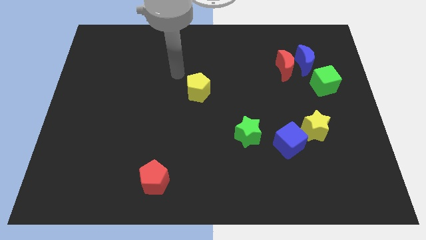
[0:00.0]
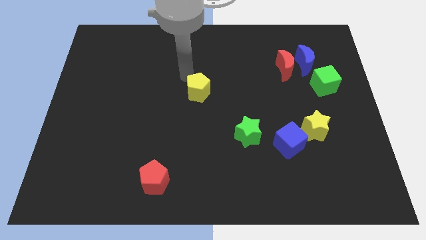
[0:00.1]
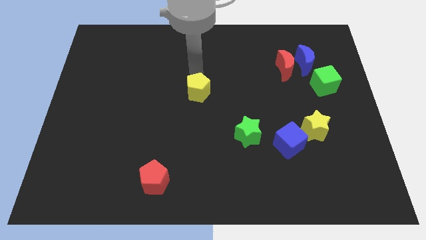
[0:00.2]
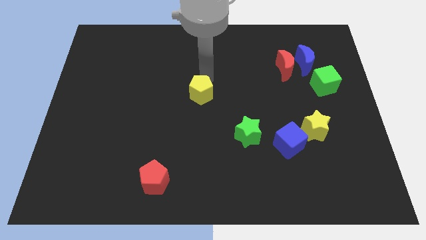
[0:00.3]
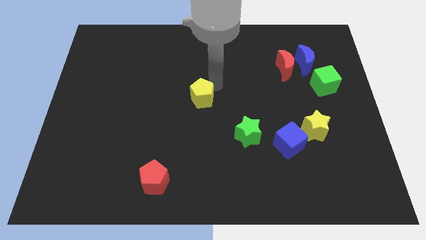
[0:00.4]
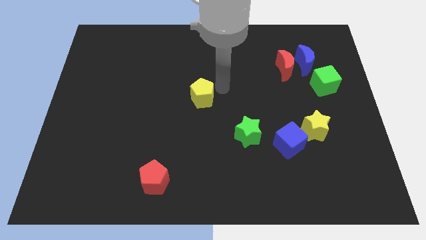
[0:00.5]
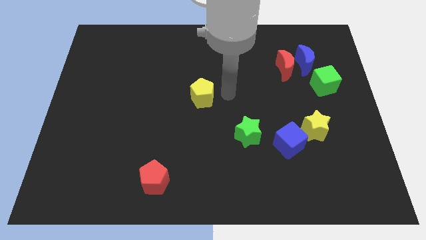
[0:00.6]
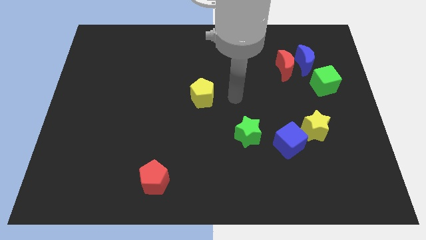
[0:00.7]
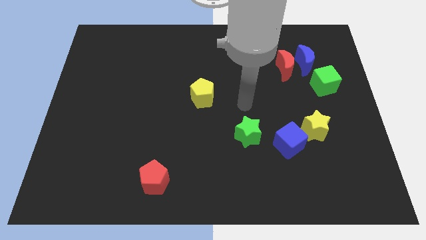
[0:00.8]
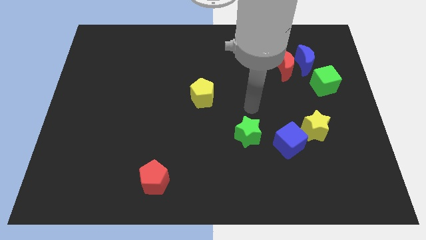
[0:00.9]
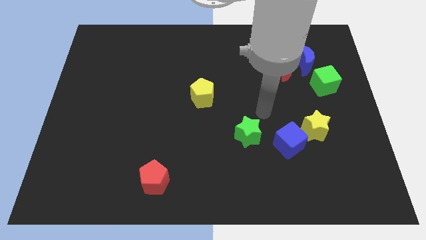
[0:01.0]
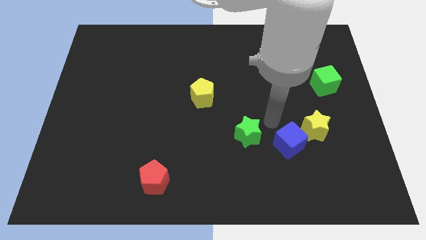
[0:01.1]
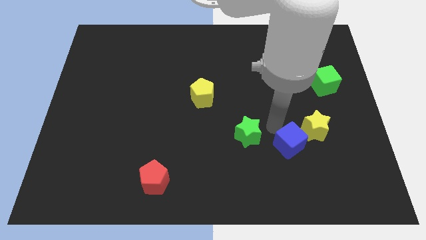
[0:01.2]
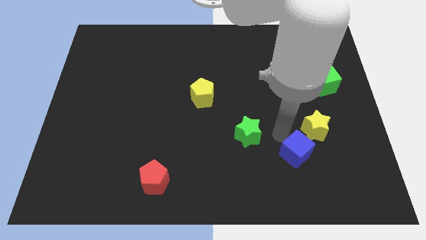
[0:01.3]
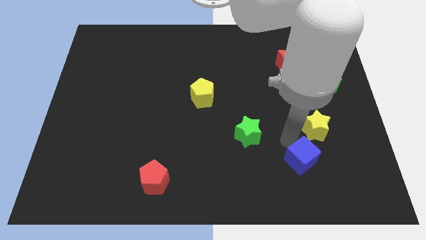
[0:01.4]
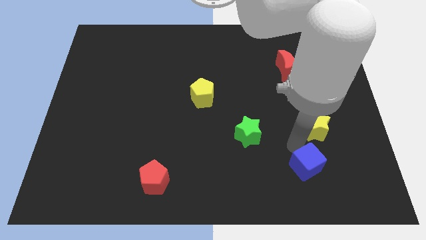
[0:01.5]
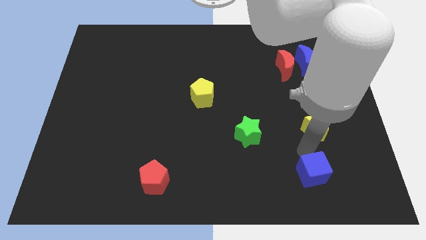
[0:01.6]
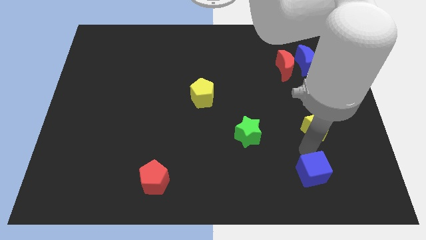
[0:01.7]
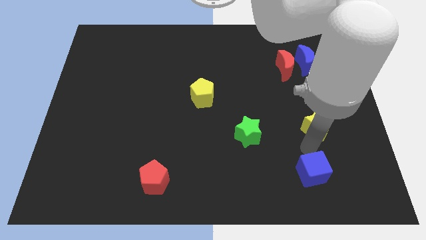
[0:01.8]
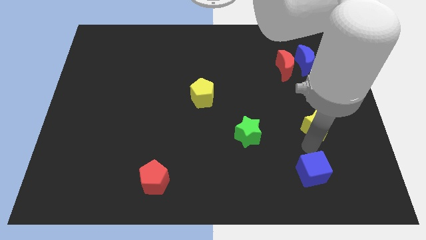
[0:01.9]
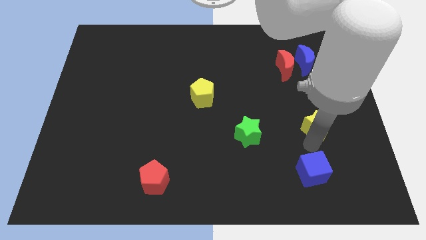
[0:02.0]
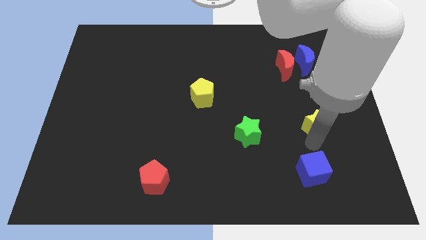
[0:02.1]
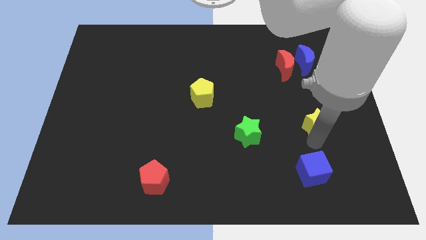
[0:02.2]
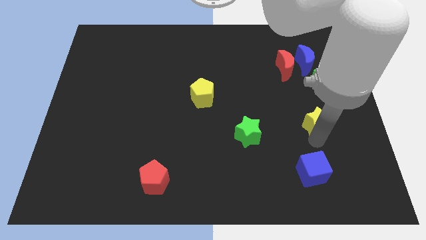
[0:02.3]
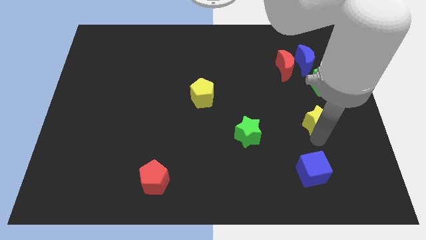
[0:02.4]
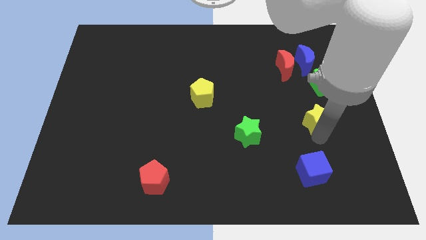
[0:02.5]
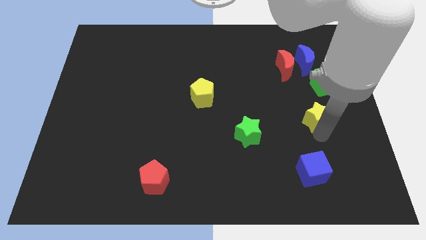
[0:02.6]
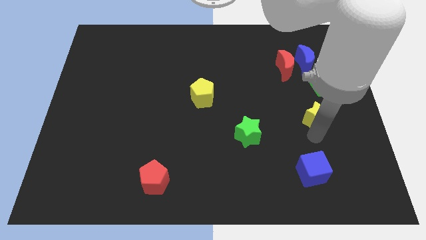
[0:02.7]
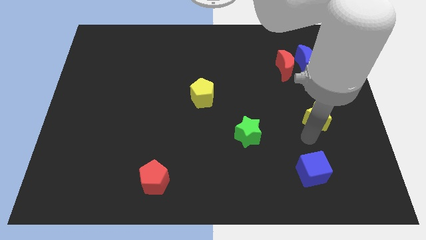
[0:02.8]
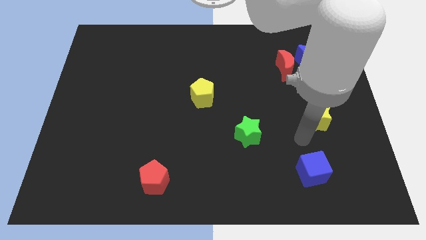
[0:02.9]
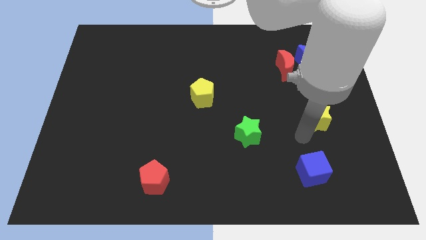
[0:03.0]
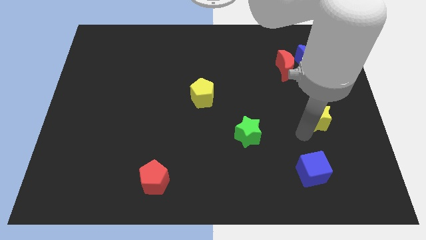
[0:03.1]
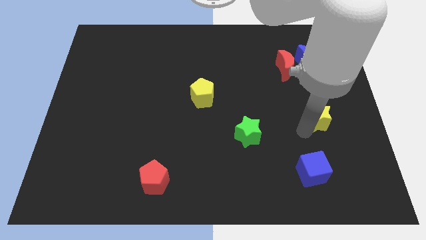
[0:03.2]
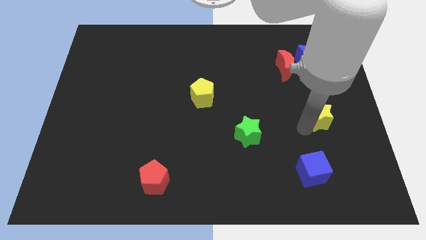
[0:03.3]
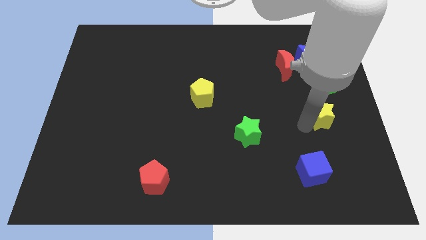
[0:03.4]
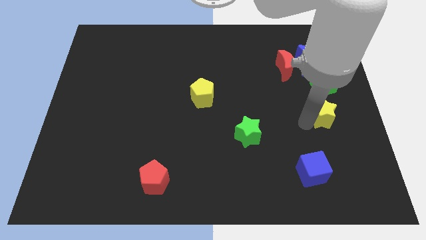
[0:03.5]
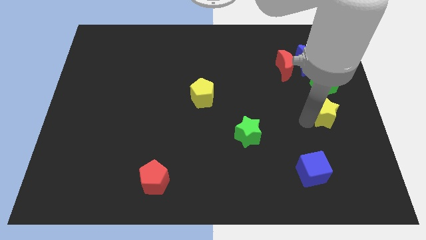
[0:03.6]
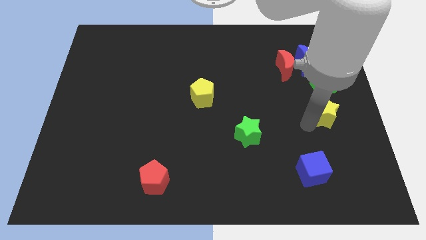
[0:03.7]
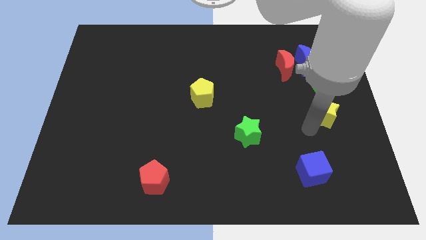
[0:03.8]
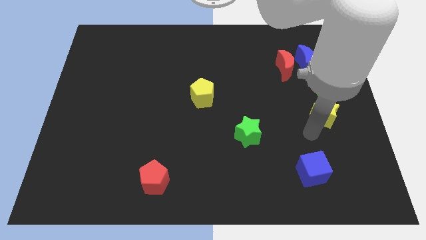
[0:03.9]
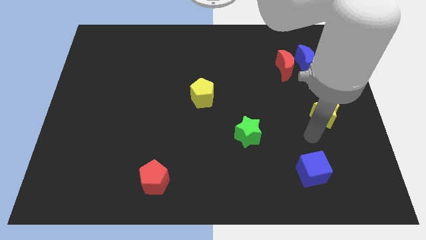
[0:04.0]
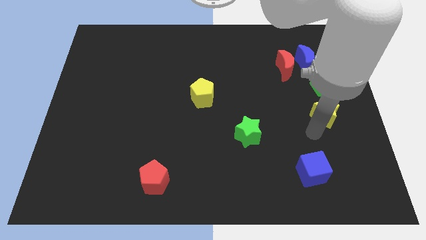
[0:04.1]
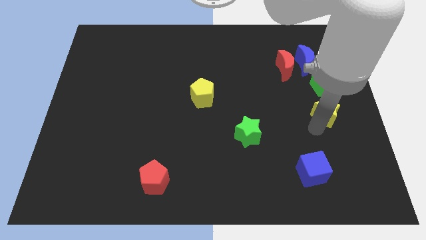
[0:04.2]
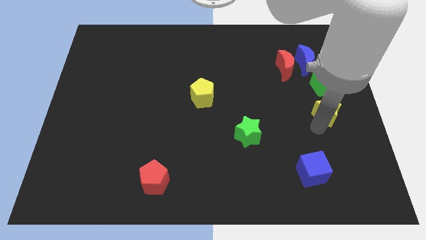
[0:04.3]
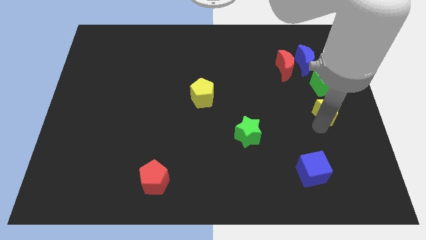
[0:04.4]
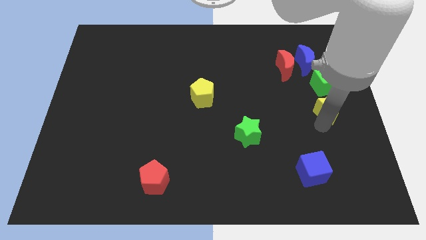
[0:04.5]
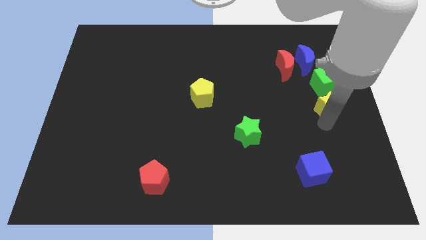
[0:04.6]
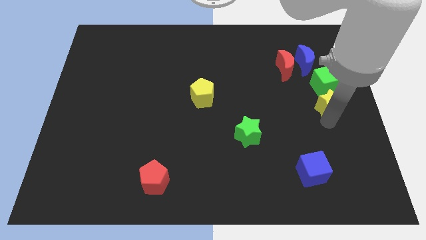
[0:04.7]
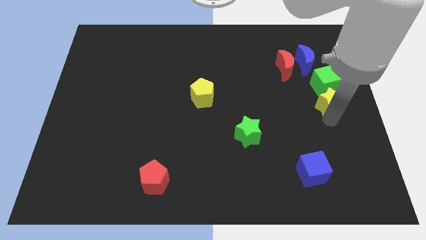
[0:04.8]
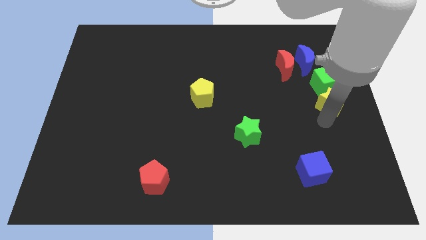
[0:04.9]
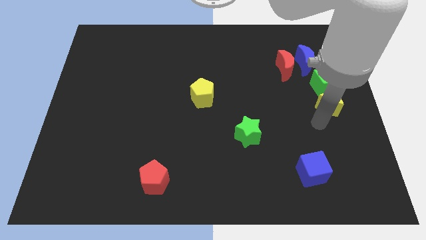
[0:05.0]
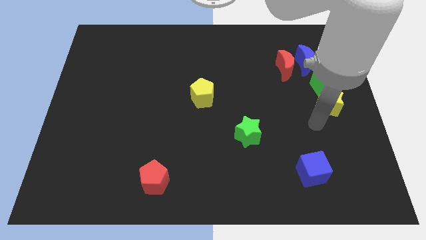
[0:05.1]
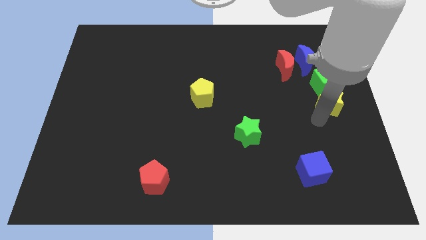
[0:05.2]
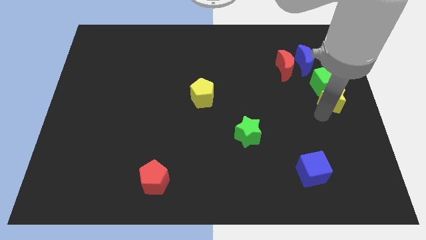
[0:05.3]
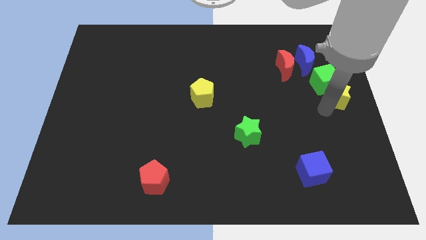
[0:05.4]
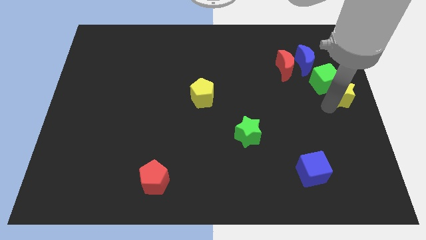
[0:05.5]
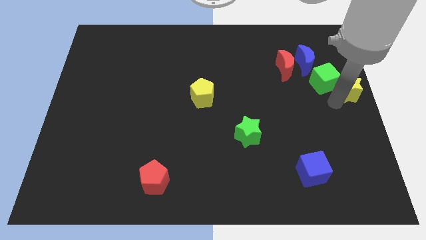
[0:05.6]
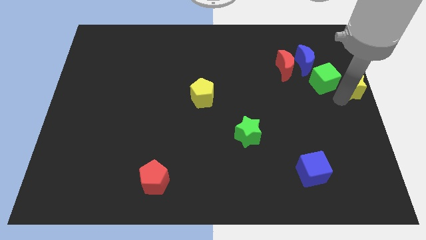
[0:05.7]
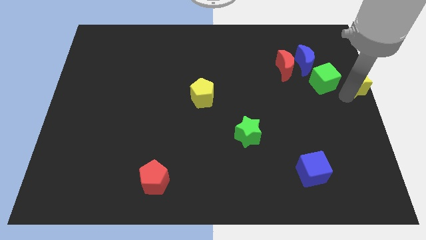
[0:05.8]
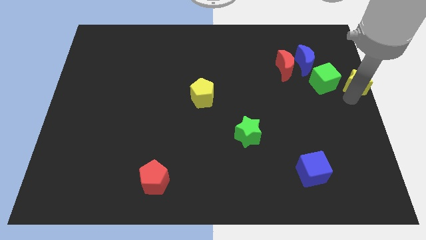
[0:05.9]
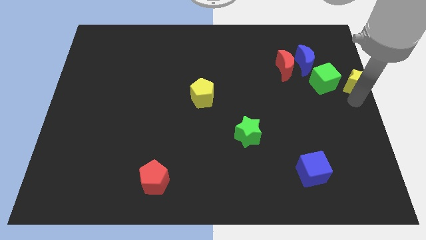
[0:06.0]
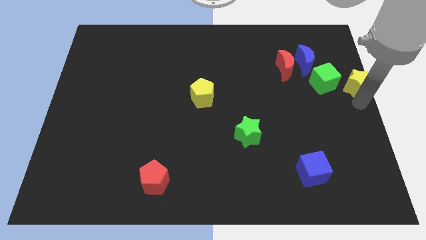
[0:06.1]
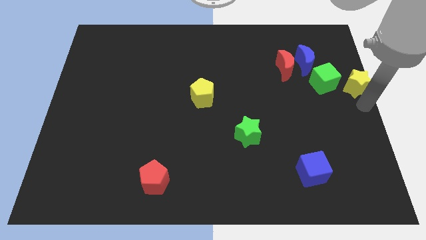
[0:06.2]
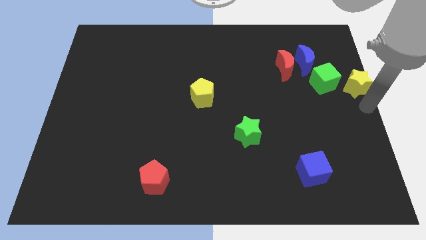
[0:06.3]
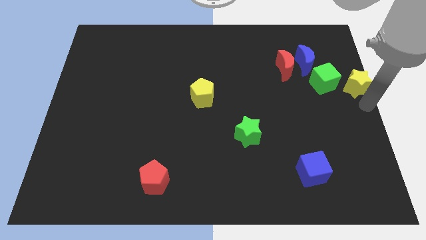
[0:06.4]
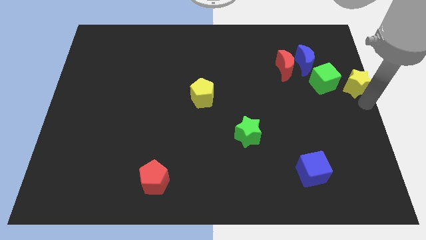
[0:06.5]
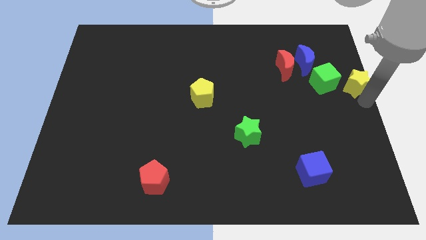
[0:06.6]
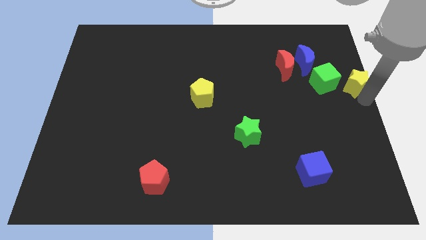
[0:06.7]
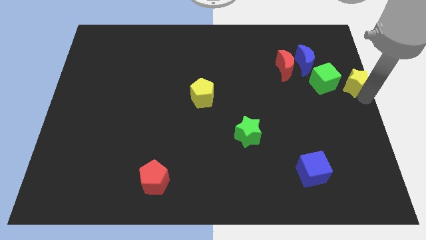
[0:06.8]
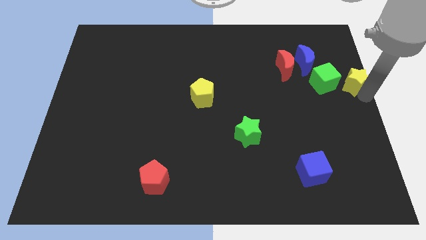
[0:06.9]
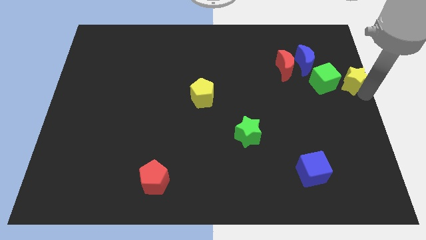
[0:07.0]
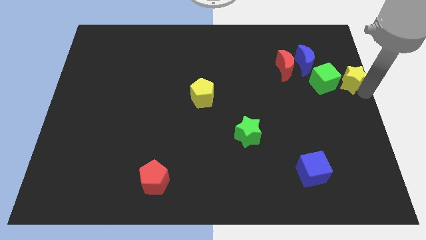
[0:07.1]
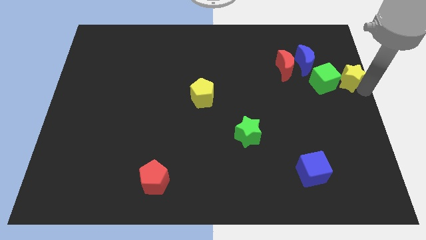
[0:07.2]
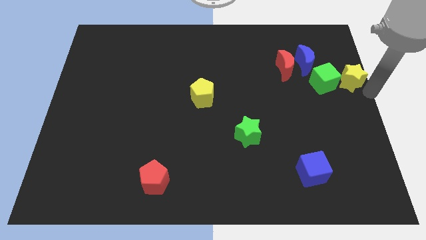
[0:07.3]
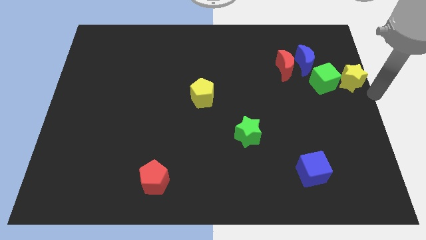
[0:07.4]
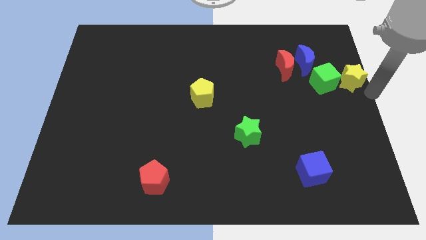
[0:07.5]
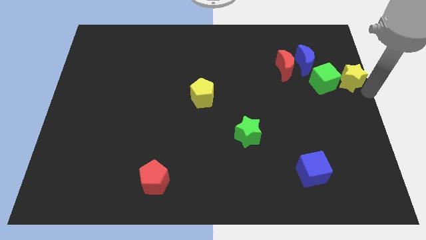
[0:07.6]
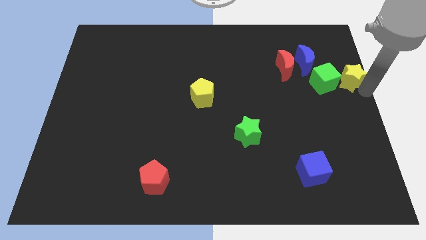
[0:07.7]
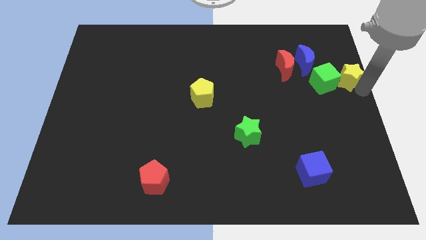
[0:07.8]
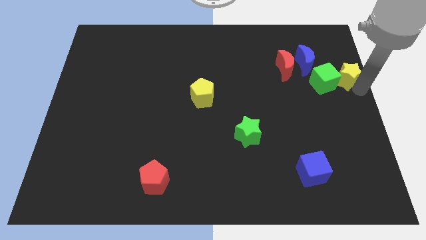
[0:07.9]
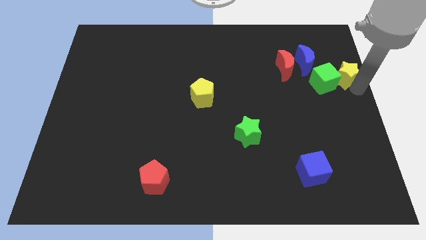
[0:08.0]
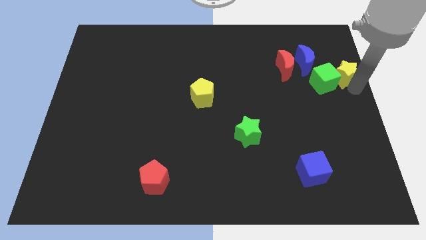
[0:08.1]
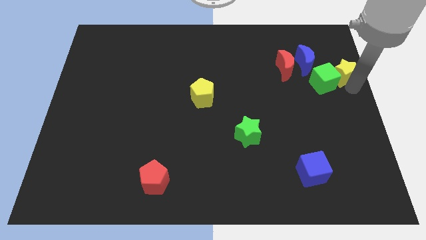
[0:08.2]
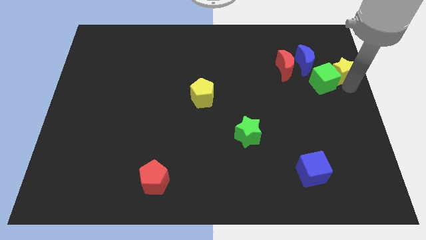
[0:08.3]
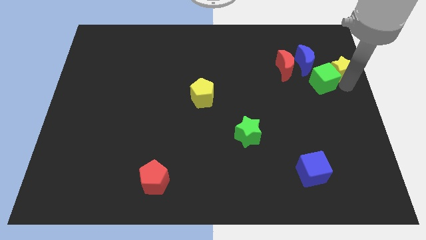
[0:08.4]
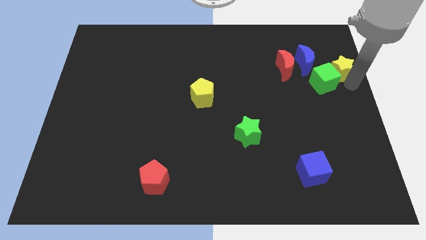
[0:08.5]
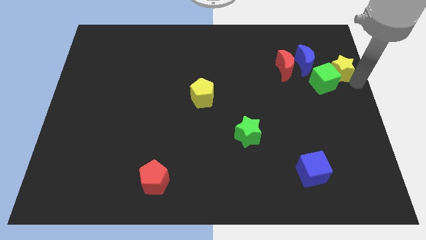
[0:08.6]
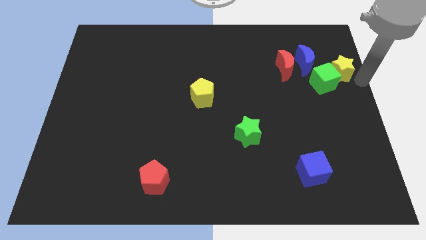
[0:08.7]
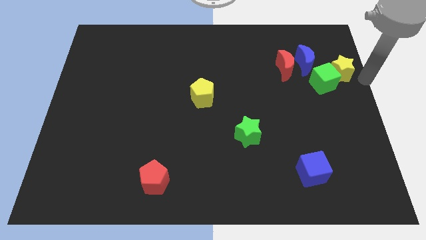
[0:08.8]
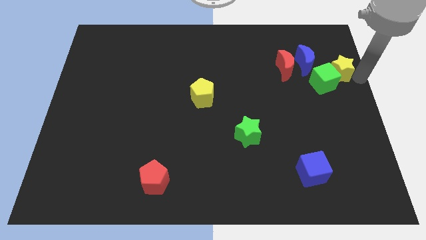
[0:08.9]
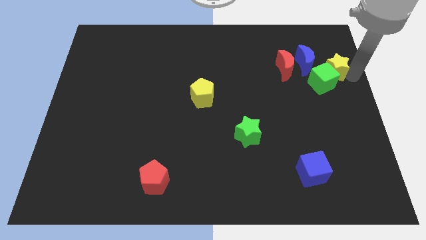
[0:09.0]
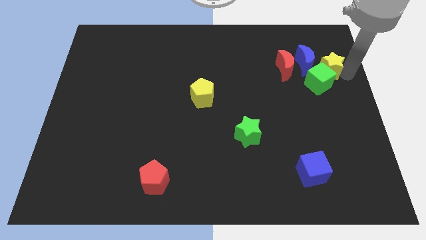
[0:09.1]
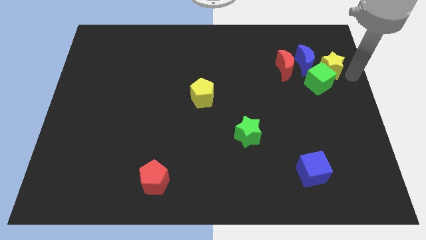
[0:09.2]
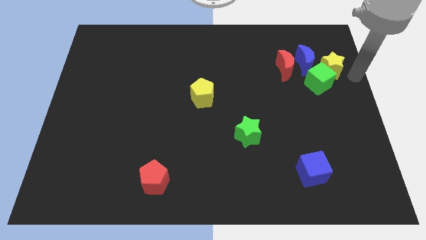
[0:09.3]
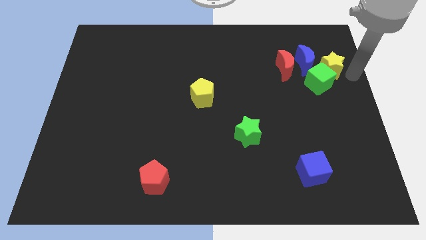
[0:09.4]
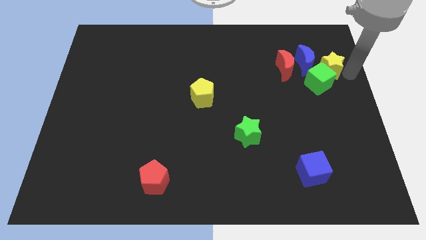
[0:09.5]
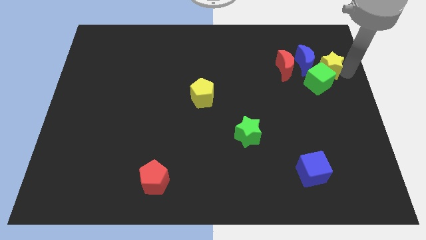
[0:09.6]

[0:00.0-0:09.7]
move the yellow star towards the blue moon
